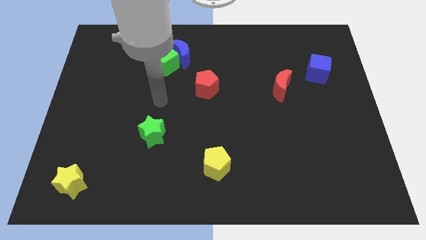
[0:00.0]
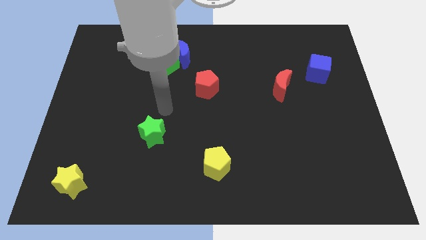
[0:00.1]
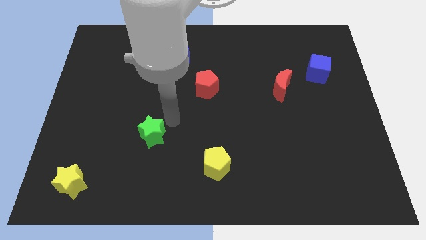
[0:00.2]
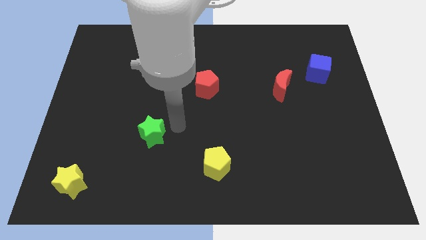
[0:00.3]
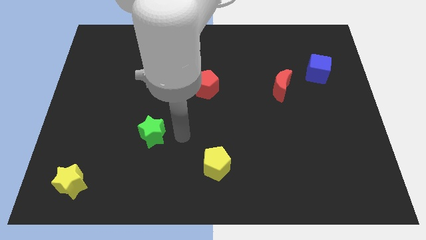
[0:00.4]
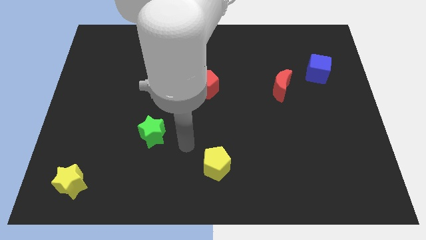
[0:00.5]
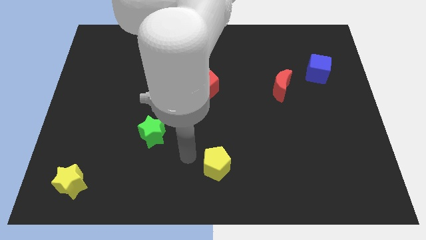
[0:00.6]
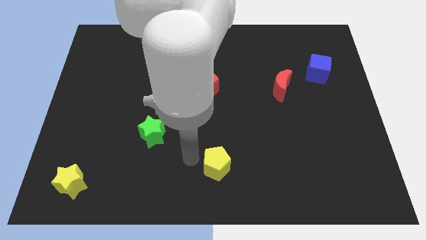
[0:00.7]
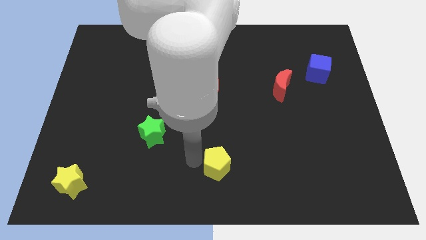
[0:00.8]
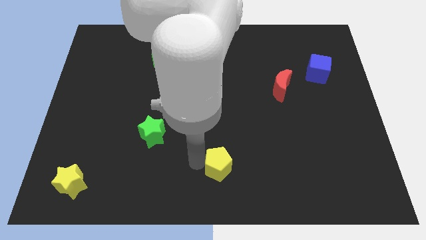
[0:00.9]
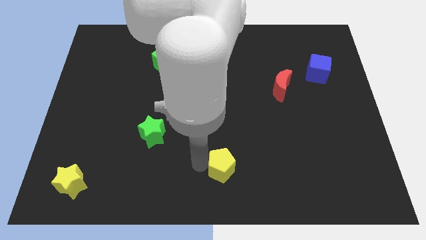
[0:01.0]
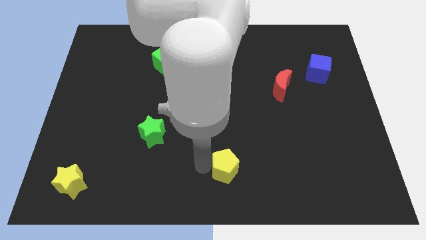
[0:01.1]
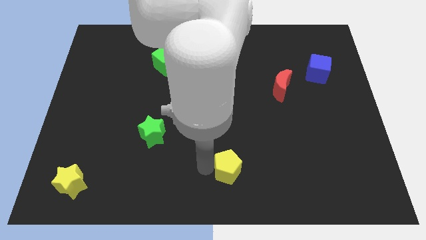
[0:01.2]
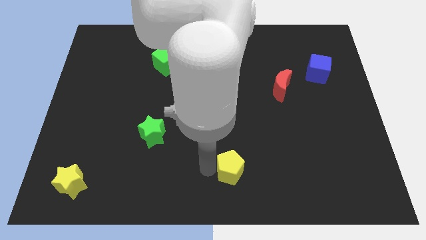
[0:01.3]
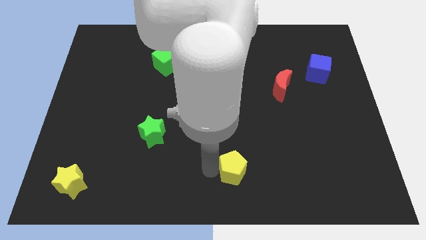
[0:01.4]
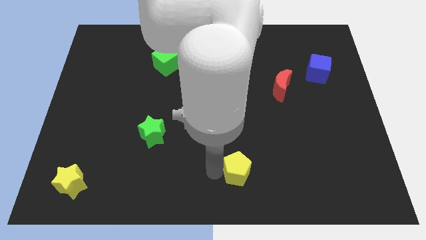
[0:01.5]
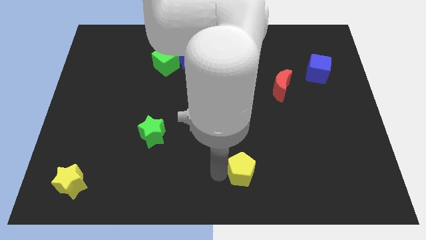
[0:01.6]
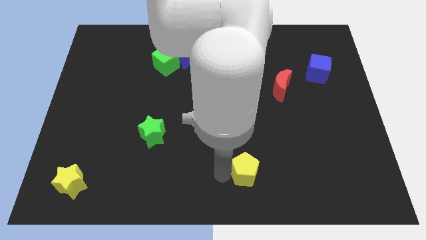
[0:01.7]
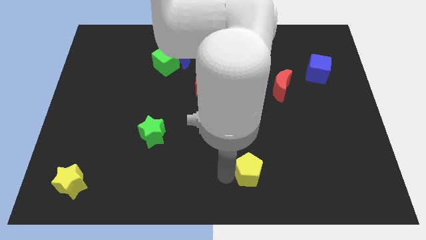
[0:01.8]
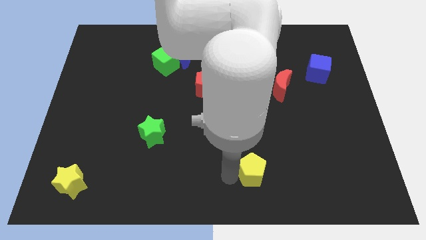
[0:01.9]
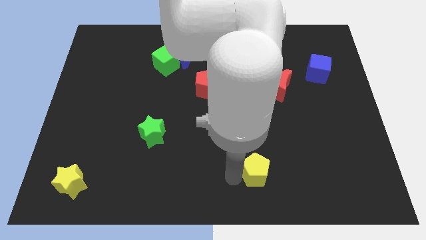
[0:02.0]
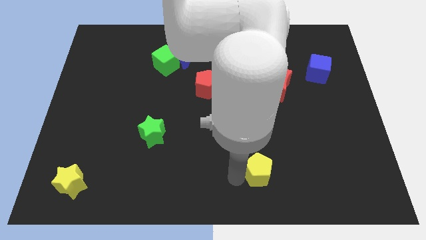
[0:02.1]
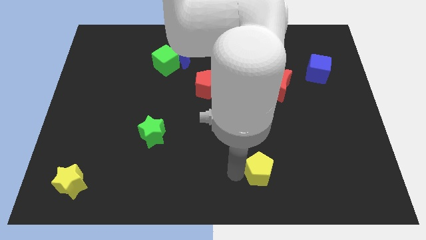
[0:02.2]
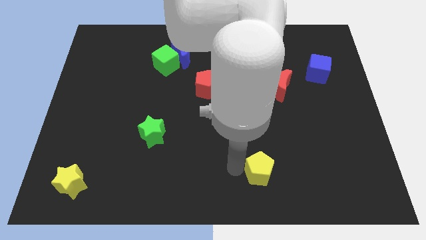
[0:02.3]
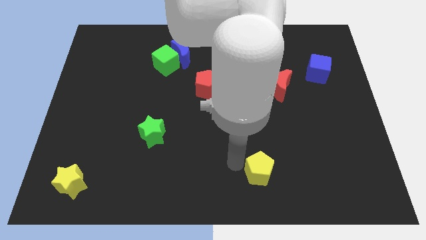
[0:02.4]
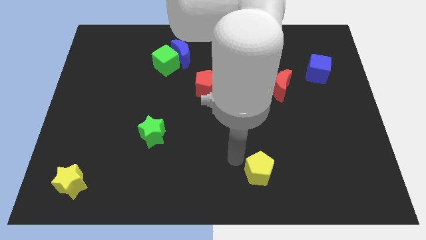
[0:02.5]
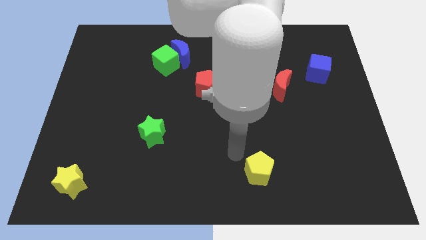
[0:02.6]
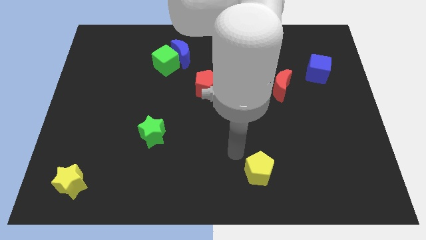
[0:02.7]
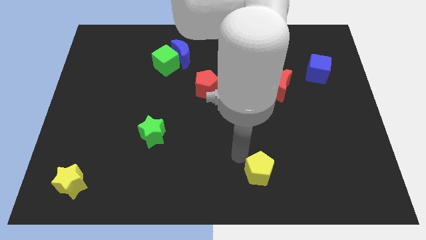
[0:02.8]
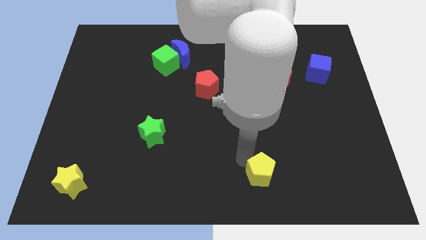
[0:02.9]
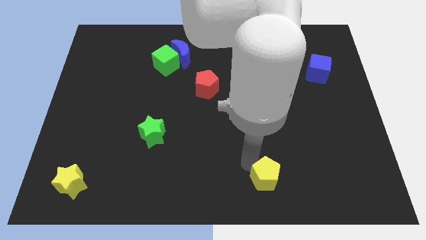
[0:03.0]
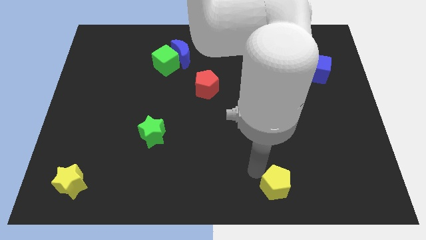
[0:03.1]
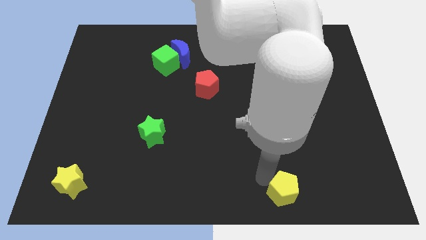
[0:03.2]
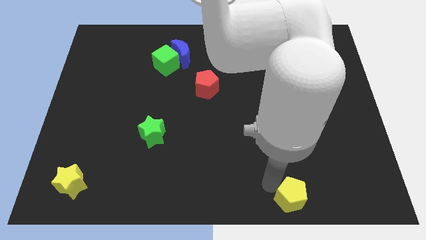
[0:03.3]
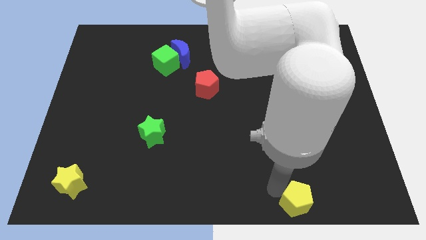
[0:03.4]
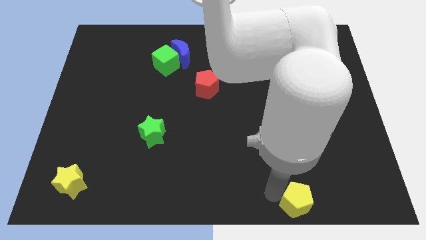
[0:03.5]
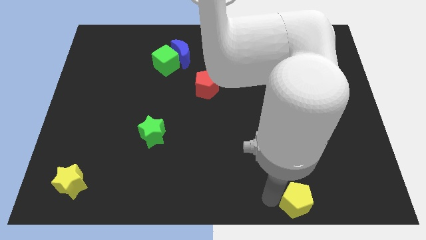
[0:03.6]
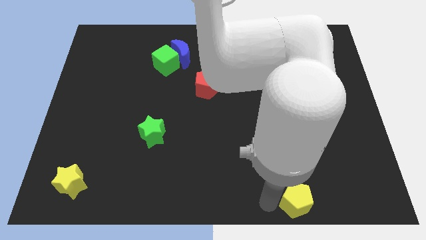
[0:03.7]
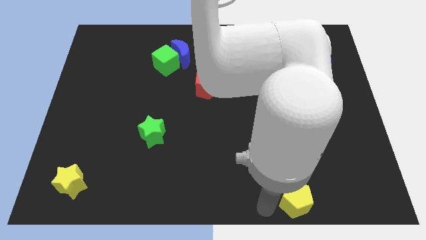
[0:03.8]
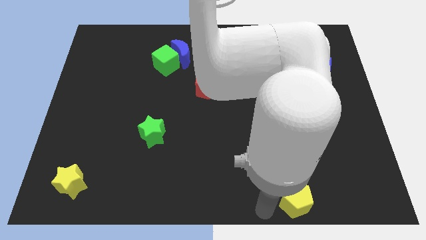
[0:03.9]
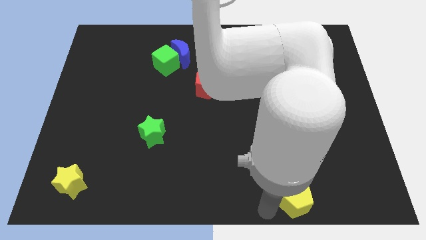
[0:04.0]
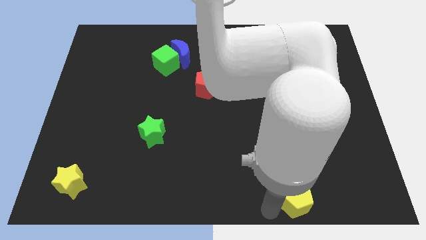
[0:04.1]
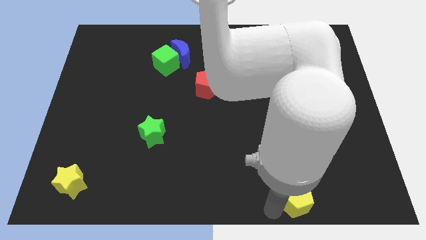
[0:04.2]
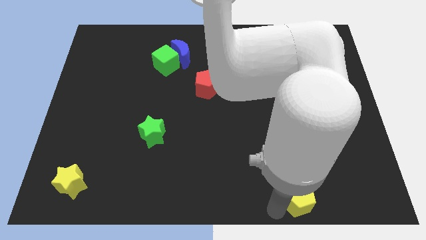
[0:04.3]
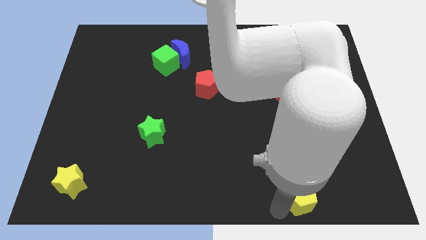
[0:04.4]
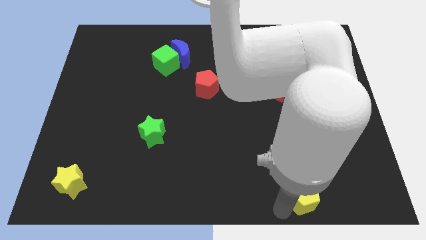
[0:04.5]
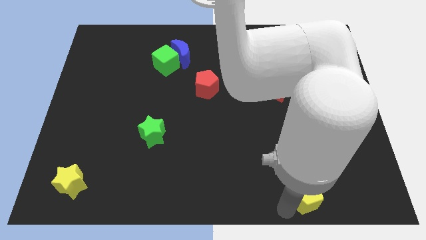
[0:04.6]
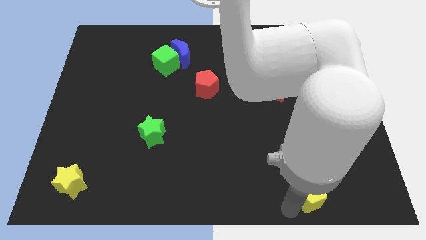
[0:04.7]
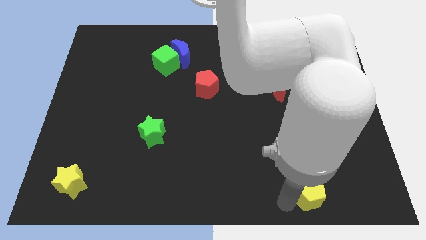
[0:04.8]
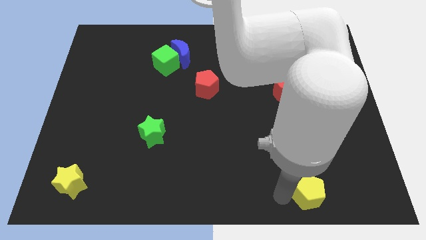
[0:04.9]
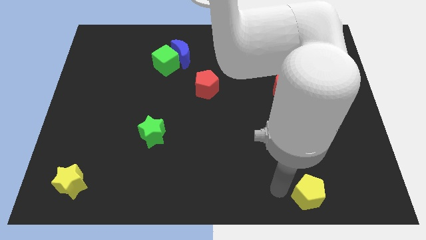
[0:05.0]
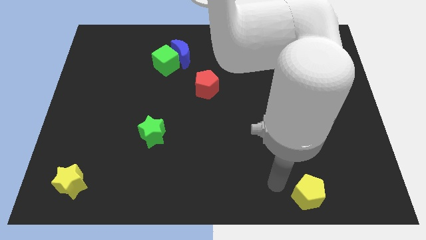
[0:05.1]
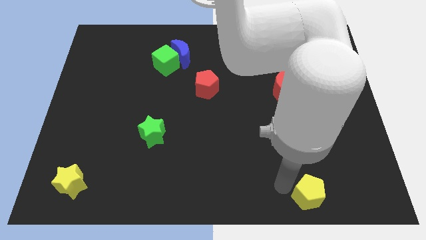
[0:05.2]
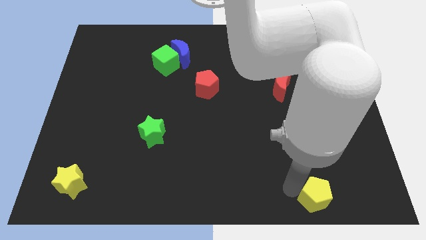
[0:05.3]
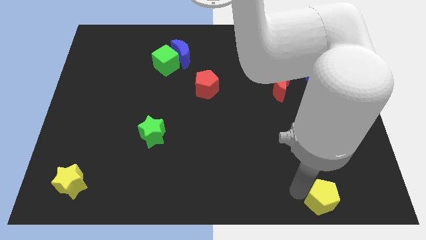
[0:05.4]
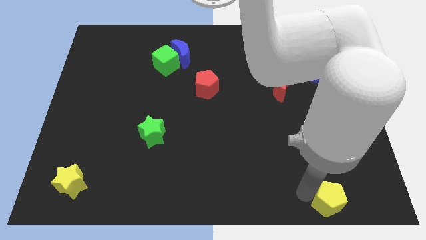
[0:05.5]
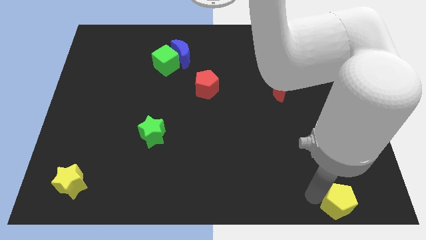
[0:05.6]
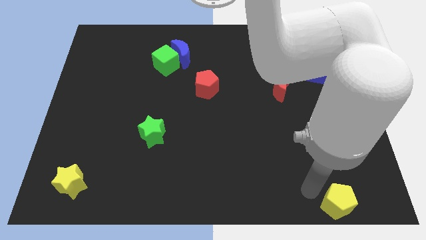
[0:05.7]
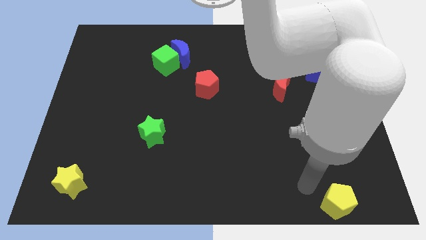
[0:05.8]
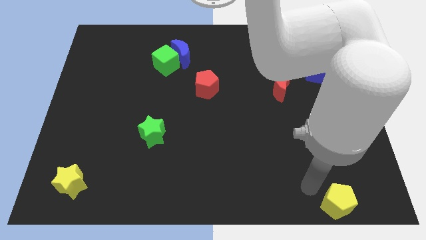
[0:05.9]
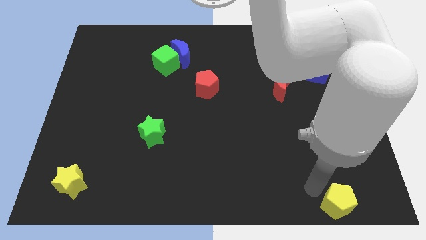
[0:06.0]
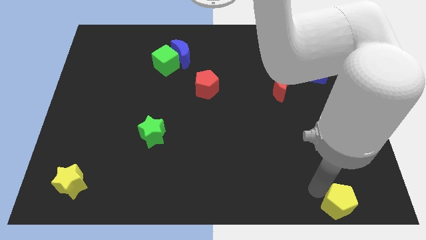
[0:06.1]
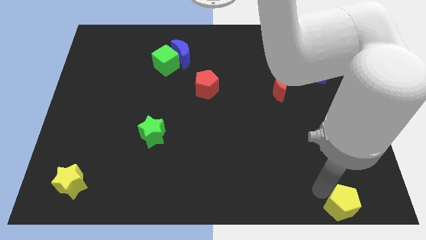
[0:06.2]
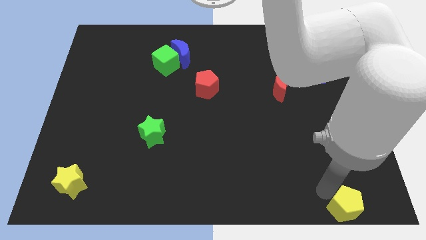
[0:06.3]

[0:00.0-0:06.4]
put the yellow pentagon to the bottom right
